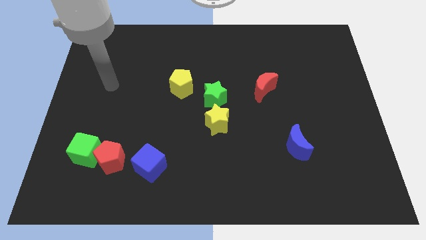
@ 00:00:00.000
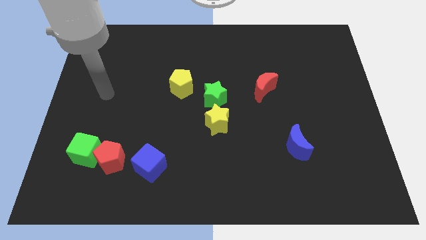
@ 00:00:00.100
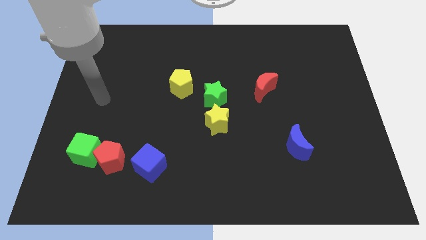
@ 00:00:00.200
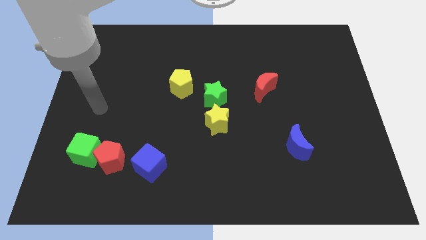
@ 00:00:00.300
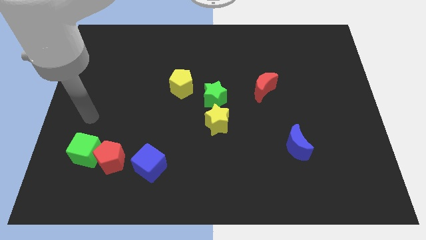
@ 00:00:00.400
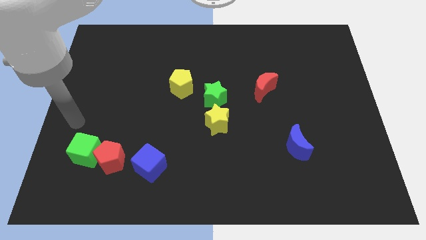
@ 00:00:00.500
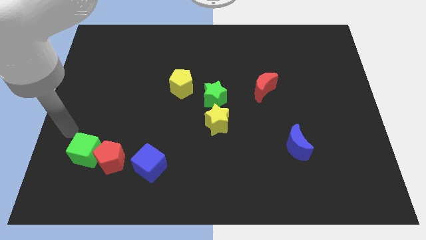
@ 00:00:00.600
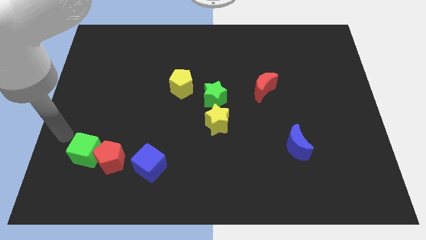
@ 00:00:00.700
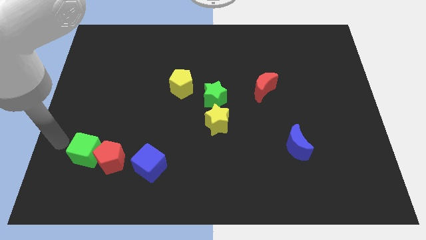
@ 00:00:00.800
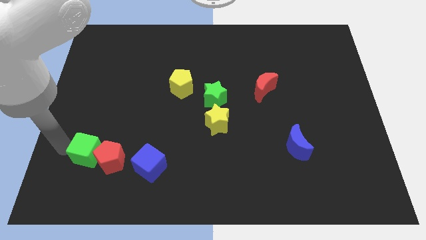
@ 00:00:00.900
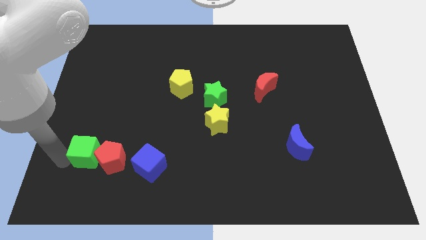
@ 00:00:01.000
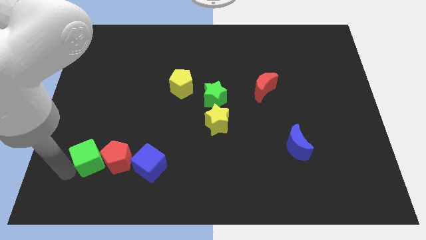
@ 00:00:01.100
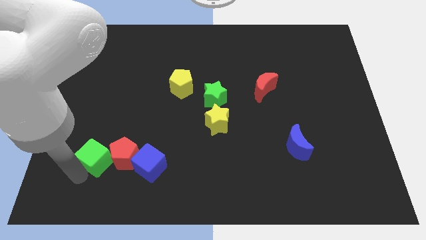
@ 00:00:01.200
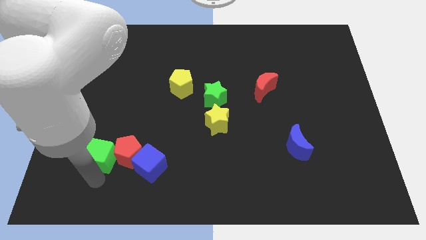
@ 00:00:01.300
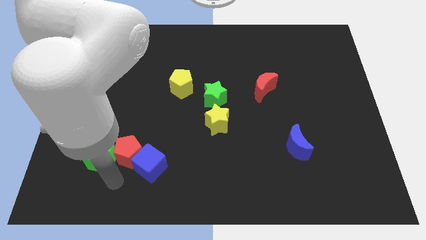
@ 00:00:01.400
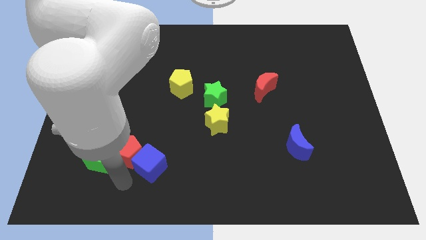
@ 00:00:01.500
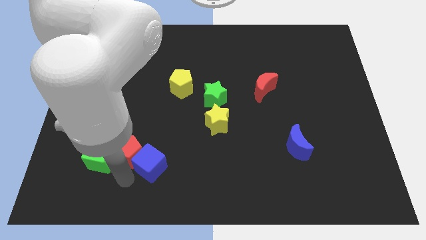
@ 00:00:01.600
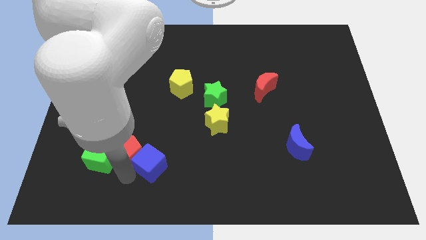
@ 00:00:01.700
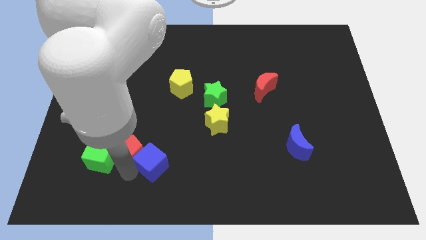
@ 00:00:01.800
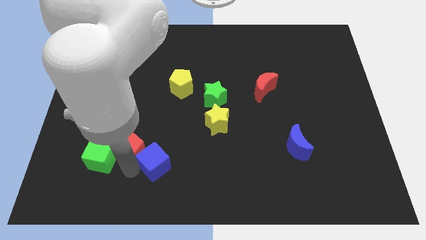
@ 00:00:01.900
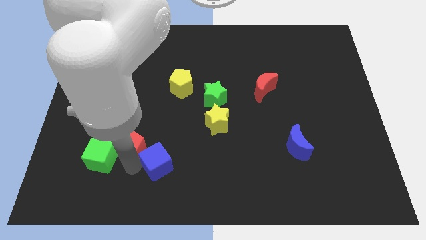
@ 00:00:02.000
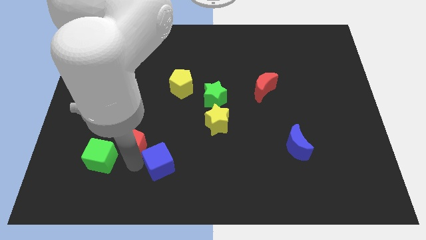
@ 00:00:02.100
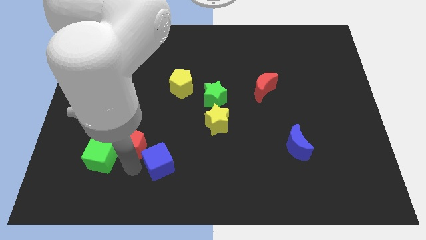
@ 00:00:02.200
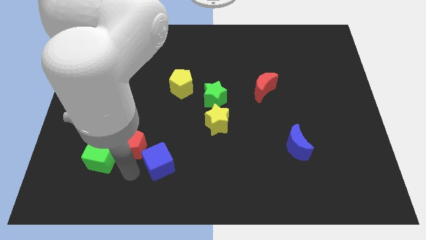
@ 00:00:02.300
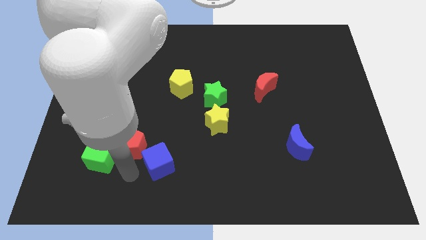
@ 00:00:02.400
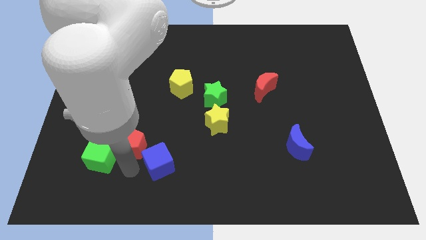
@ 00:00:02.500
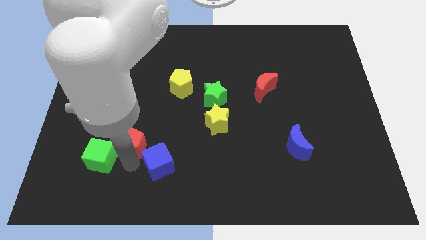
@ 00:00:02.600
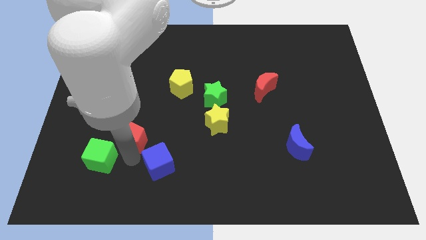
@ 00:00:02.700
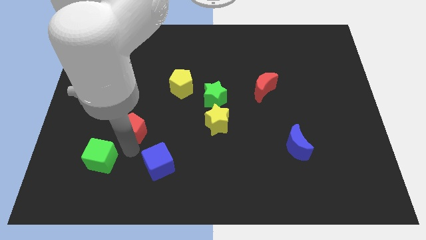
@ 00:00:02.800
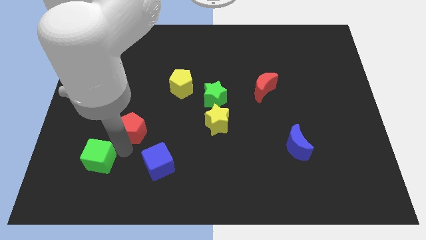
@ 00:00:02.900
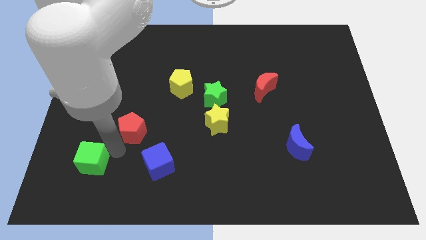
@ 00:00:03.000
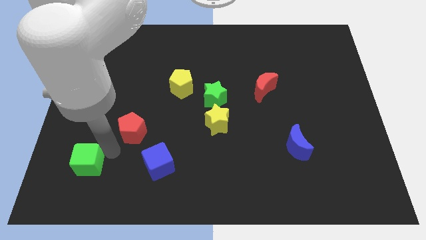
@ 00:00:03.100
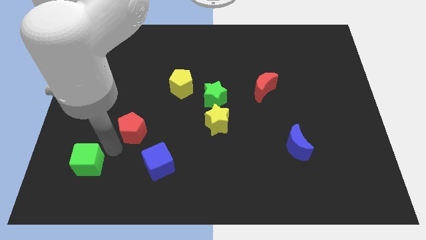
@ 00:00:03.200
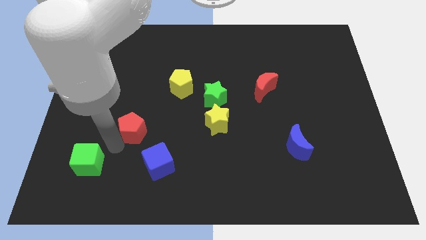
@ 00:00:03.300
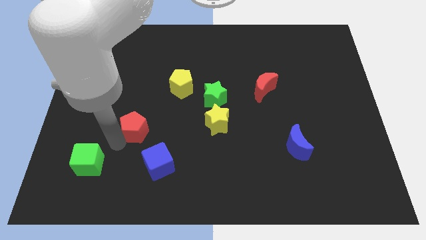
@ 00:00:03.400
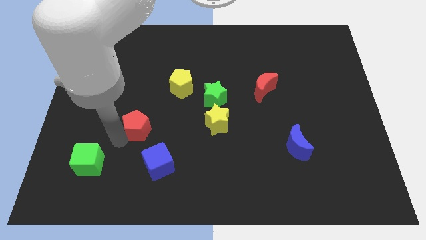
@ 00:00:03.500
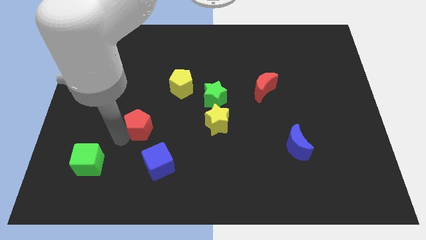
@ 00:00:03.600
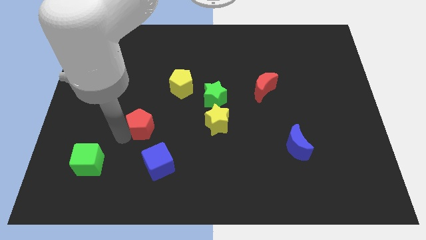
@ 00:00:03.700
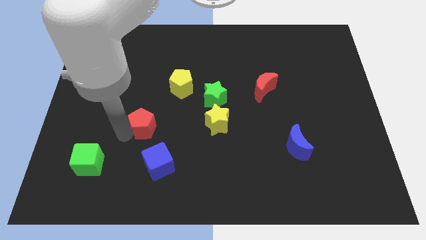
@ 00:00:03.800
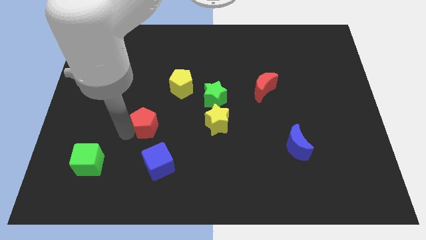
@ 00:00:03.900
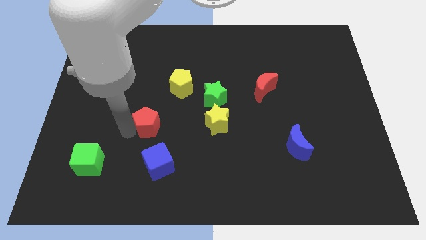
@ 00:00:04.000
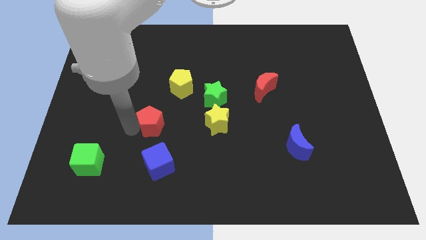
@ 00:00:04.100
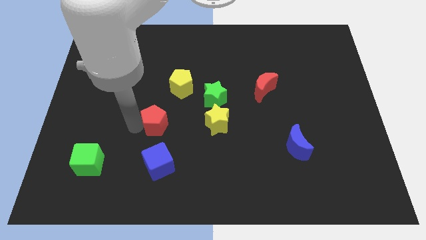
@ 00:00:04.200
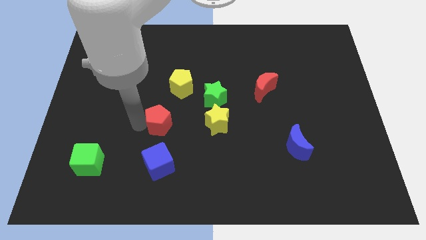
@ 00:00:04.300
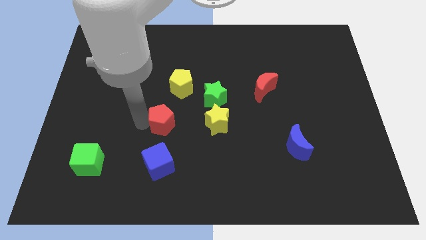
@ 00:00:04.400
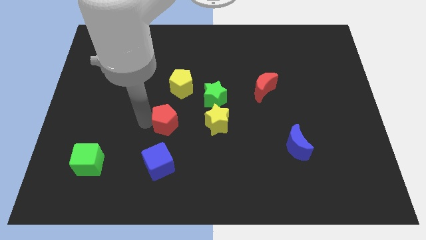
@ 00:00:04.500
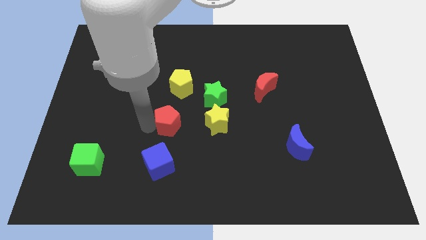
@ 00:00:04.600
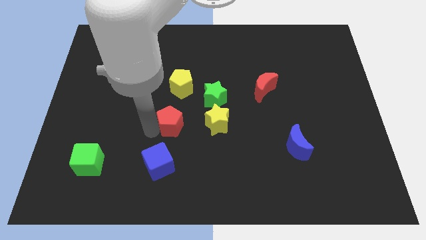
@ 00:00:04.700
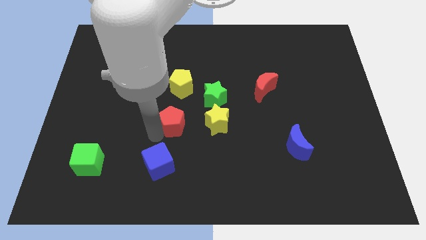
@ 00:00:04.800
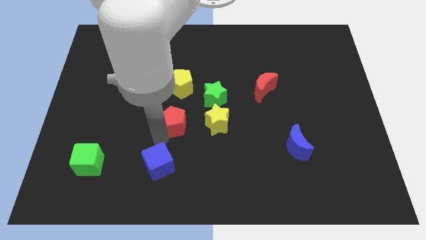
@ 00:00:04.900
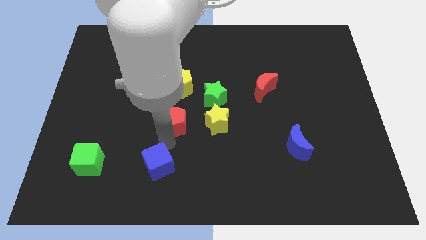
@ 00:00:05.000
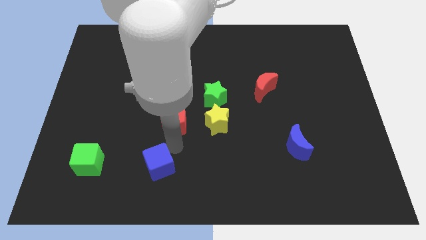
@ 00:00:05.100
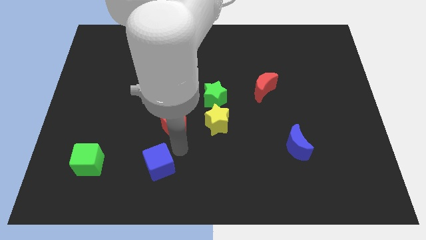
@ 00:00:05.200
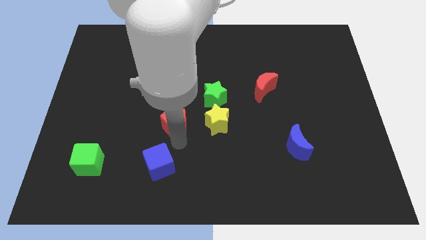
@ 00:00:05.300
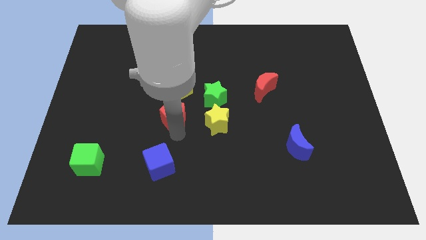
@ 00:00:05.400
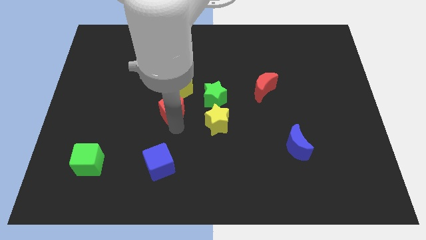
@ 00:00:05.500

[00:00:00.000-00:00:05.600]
move the red pentagon just left of the green star

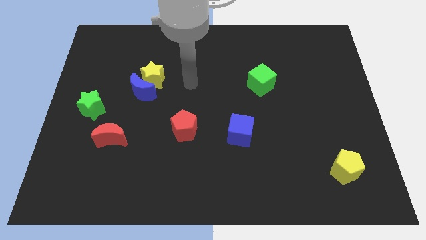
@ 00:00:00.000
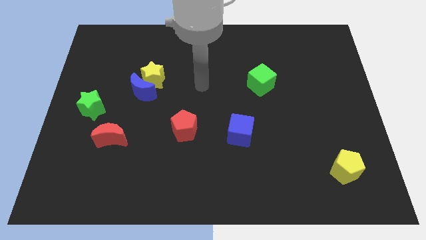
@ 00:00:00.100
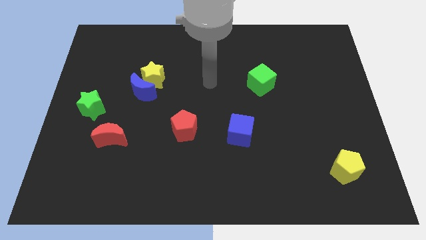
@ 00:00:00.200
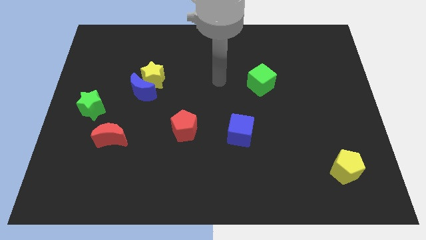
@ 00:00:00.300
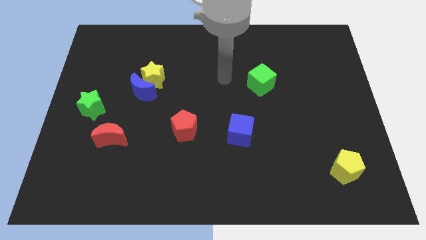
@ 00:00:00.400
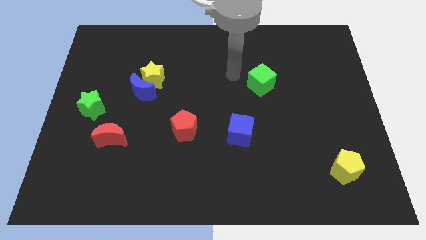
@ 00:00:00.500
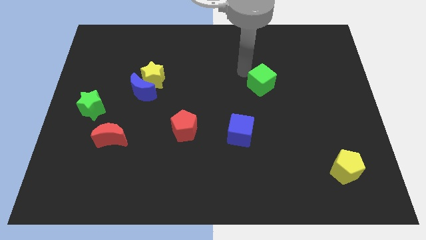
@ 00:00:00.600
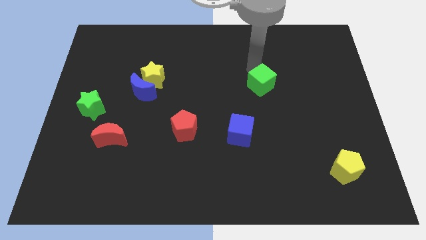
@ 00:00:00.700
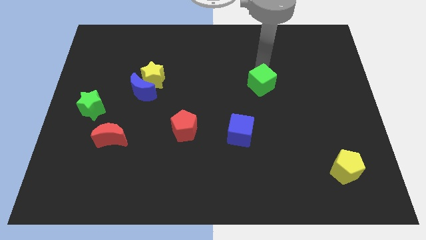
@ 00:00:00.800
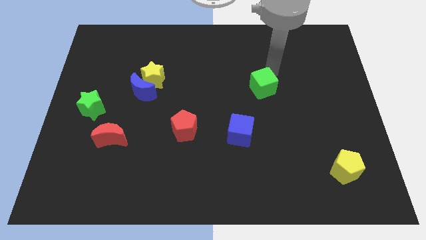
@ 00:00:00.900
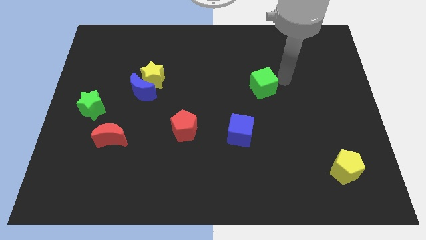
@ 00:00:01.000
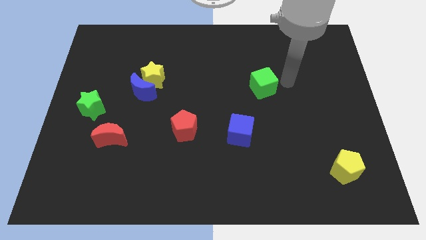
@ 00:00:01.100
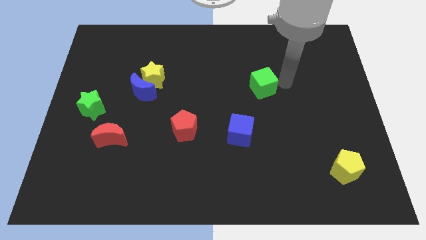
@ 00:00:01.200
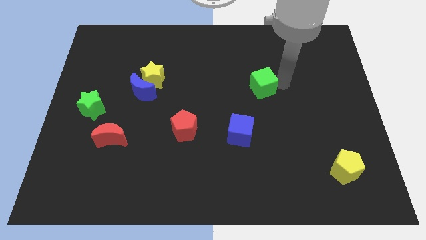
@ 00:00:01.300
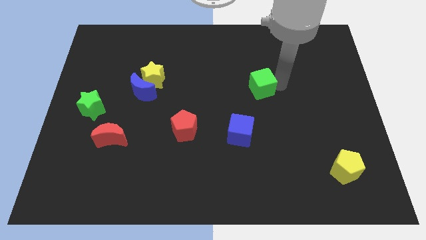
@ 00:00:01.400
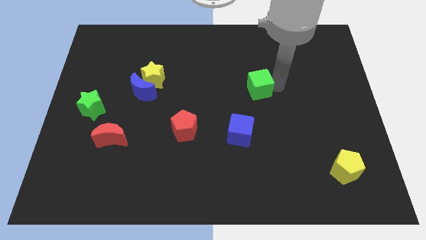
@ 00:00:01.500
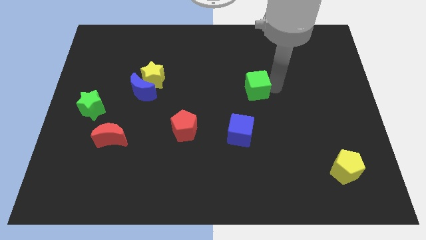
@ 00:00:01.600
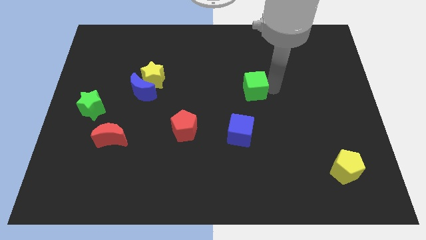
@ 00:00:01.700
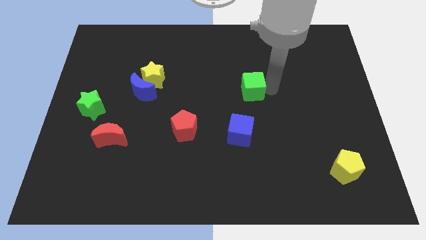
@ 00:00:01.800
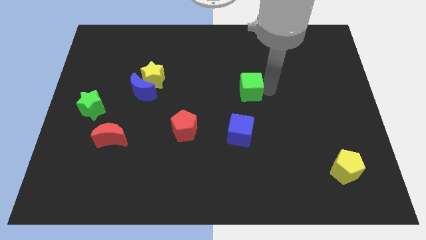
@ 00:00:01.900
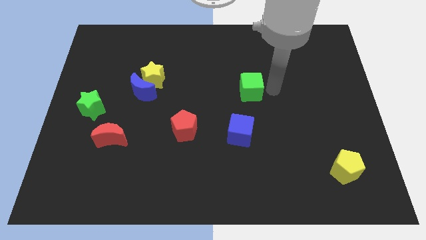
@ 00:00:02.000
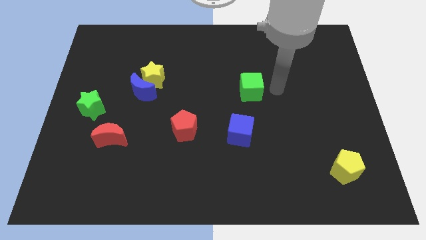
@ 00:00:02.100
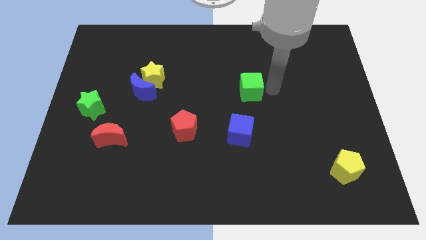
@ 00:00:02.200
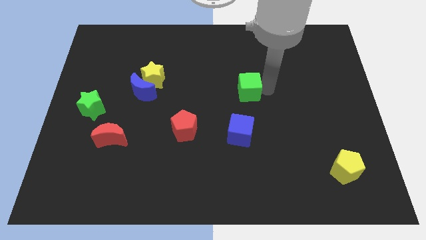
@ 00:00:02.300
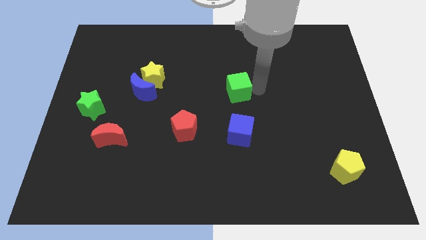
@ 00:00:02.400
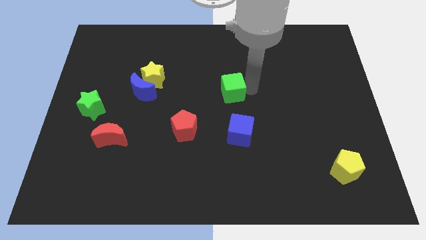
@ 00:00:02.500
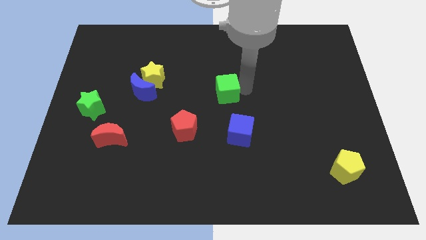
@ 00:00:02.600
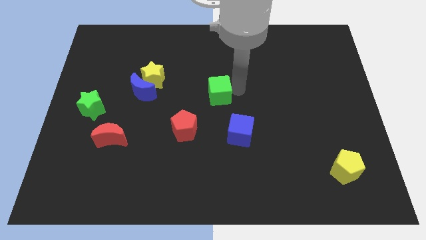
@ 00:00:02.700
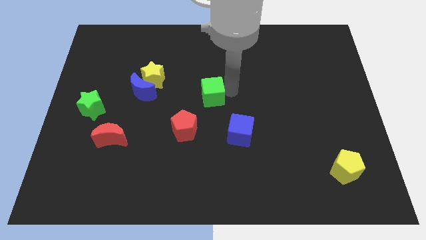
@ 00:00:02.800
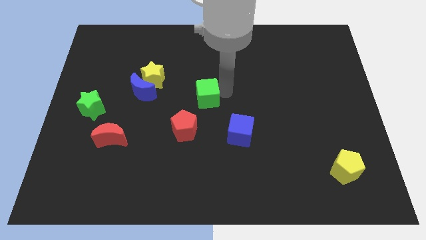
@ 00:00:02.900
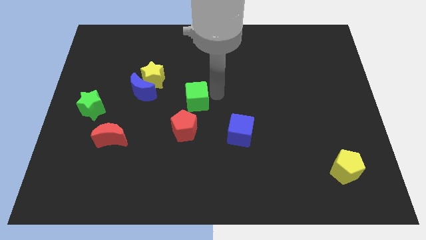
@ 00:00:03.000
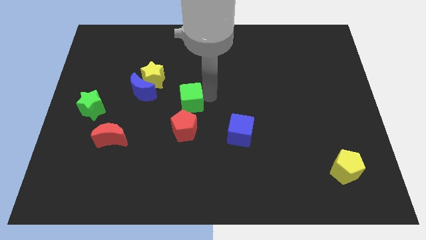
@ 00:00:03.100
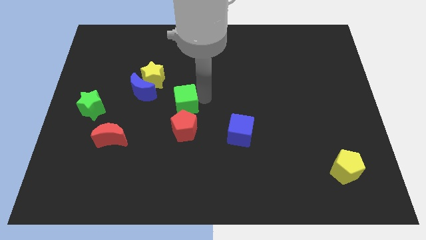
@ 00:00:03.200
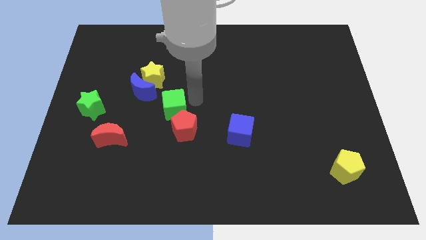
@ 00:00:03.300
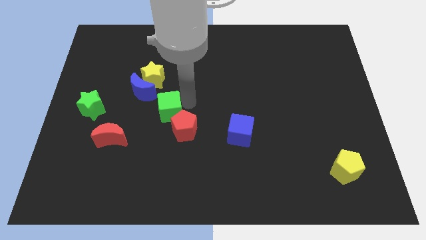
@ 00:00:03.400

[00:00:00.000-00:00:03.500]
put the green cube below the yellow star
